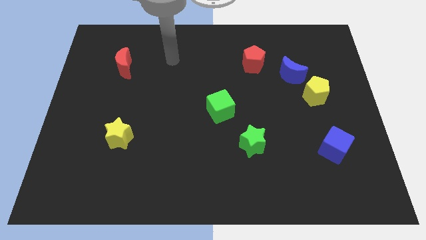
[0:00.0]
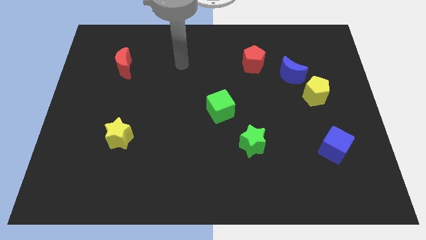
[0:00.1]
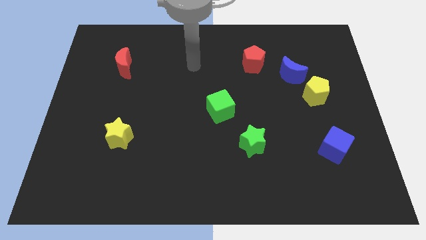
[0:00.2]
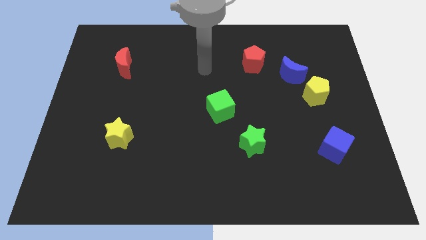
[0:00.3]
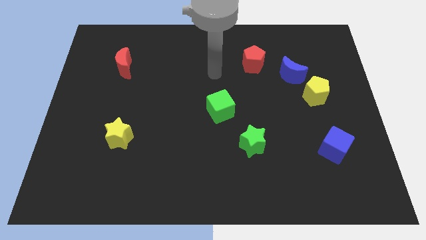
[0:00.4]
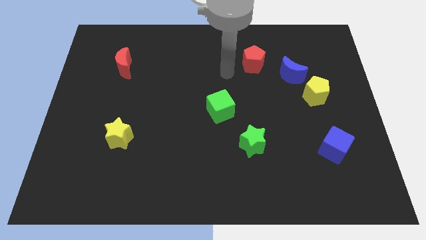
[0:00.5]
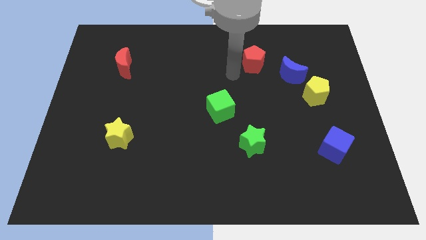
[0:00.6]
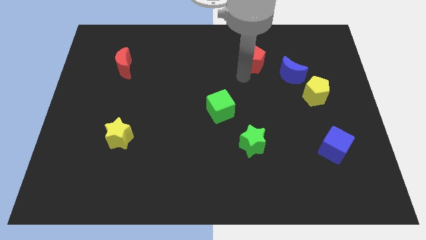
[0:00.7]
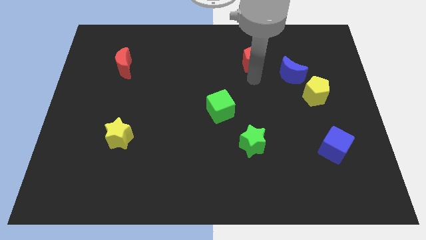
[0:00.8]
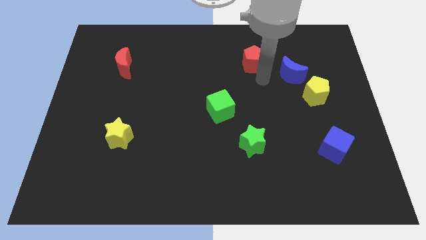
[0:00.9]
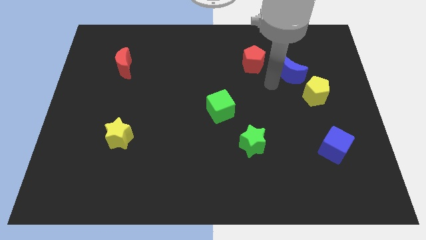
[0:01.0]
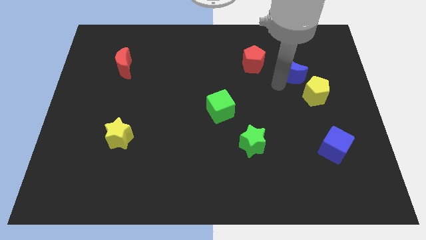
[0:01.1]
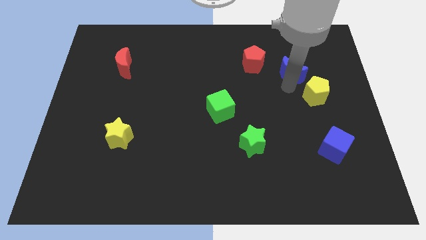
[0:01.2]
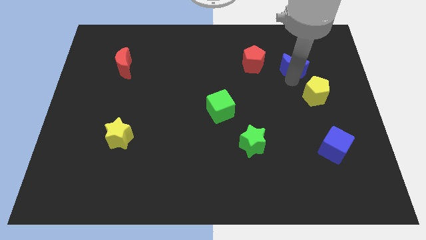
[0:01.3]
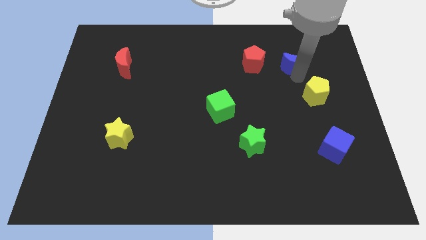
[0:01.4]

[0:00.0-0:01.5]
pull the yellow pentagon apart from the blue moon

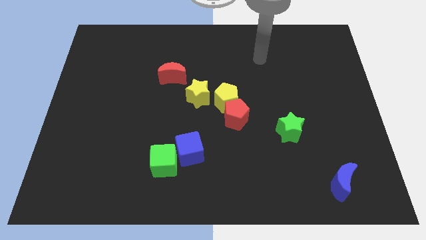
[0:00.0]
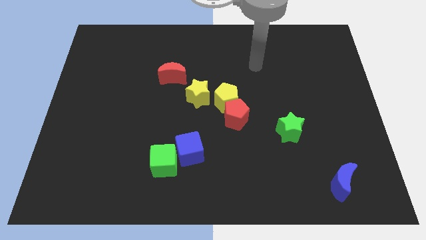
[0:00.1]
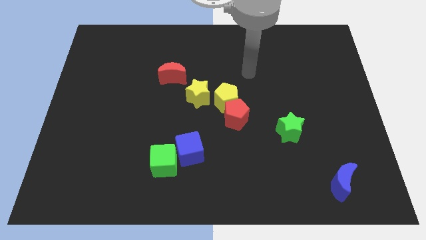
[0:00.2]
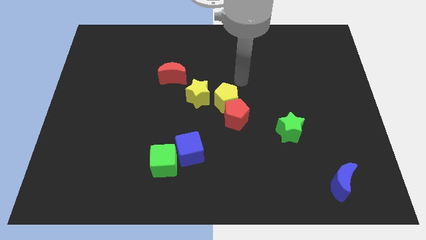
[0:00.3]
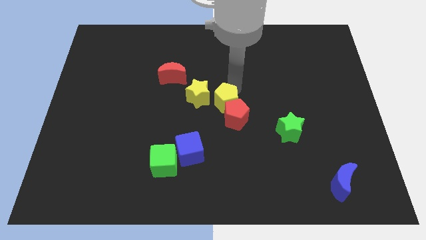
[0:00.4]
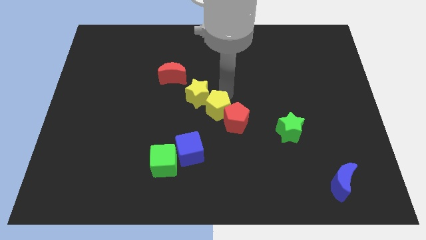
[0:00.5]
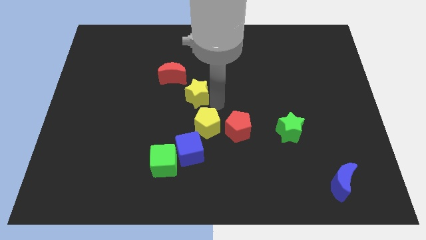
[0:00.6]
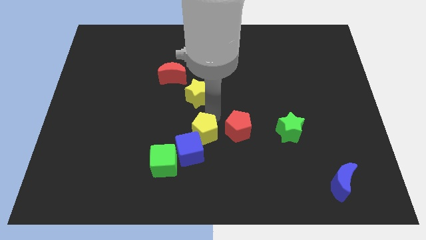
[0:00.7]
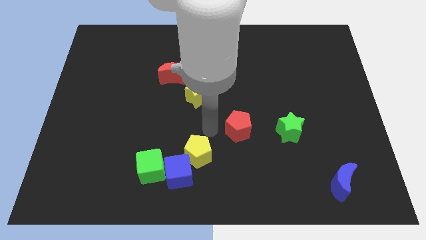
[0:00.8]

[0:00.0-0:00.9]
separate the red pentagon from the yellow pentagon

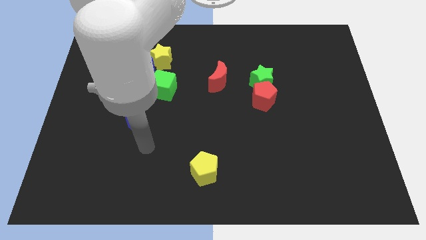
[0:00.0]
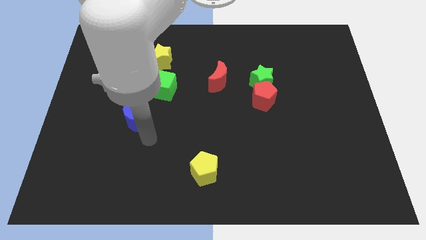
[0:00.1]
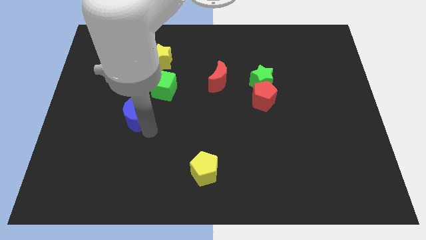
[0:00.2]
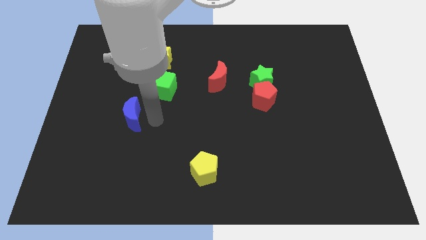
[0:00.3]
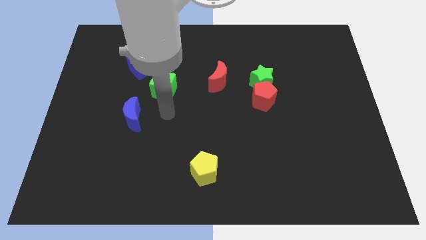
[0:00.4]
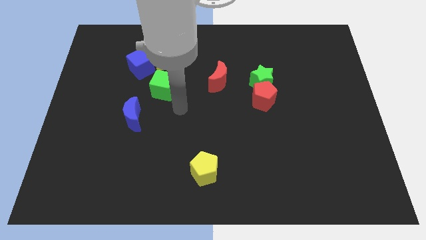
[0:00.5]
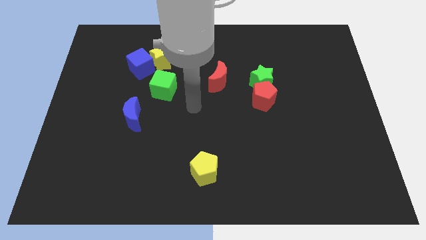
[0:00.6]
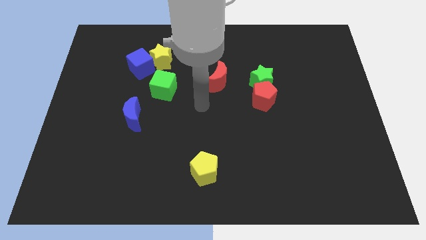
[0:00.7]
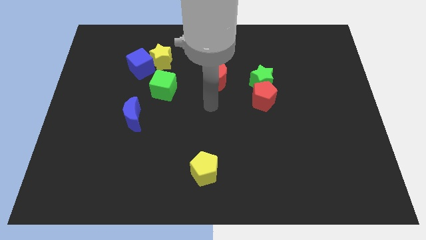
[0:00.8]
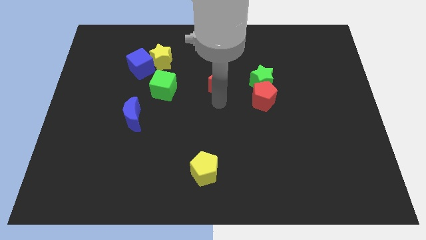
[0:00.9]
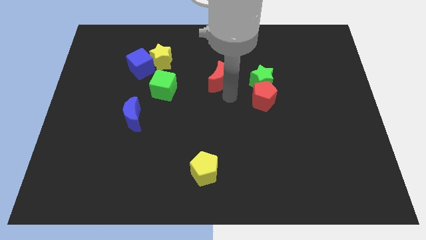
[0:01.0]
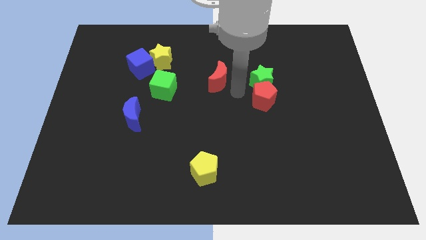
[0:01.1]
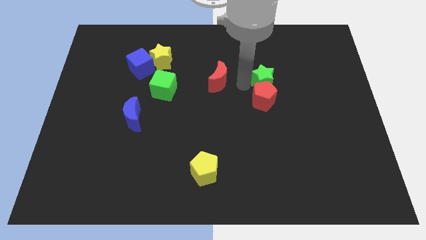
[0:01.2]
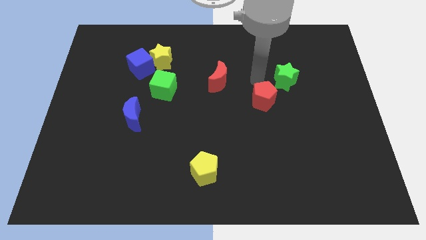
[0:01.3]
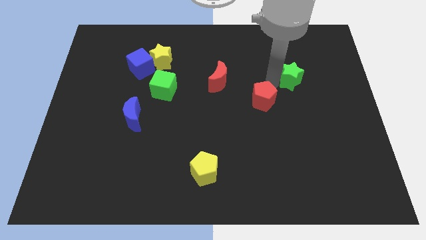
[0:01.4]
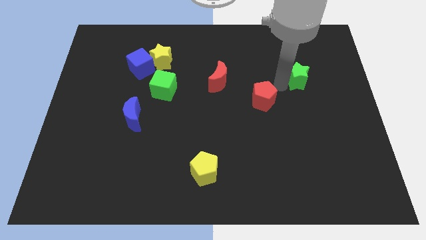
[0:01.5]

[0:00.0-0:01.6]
move the red pentagon away from the green star

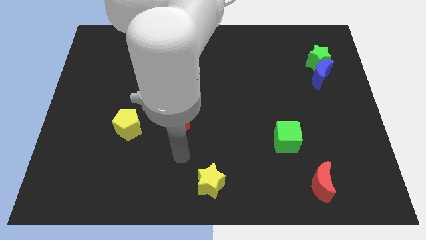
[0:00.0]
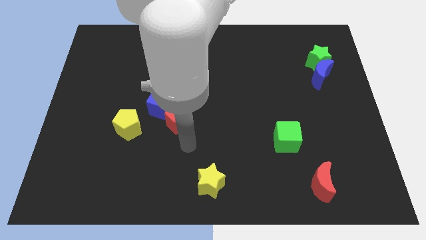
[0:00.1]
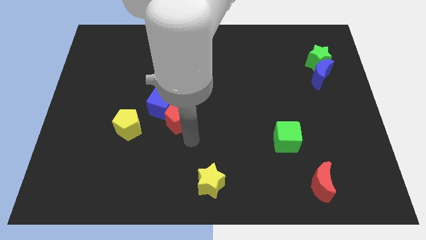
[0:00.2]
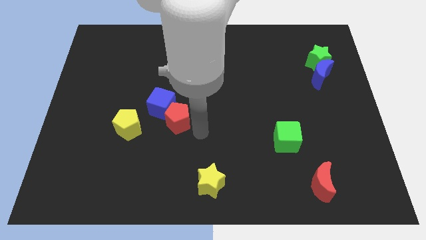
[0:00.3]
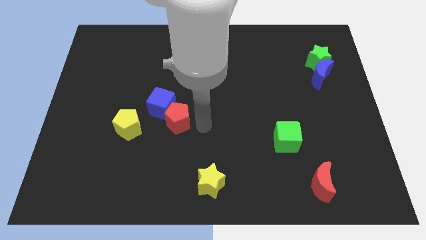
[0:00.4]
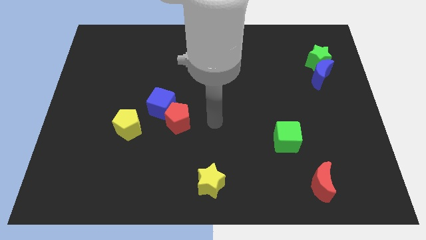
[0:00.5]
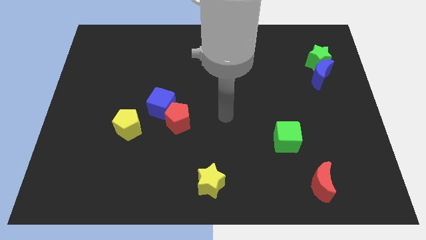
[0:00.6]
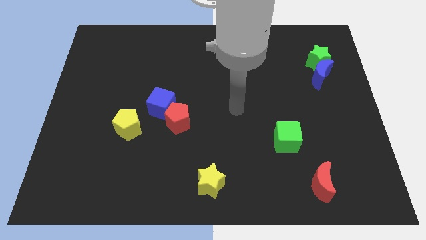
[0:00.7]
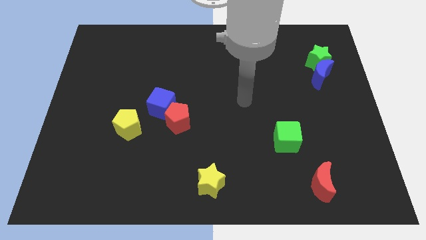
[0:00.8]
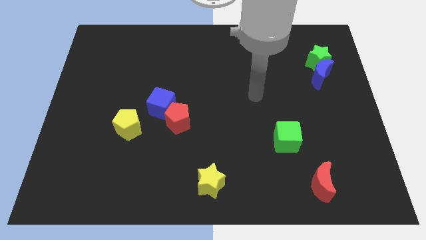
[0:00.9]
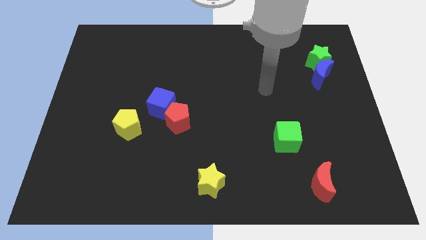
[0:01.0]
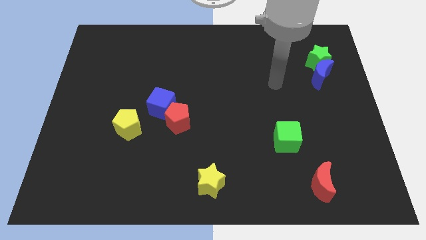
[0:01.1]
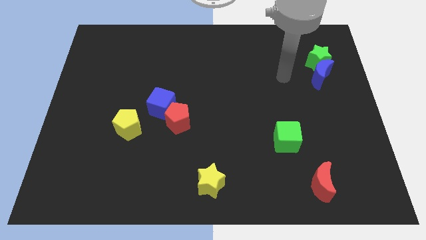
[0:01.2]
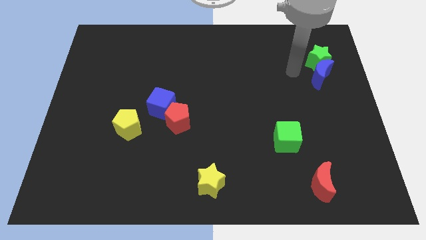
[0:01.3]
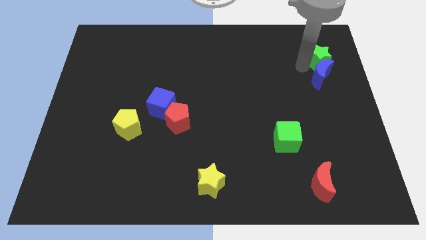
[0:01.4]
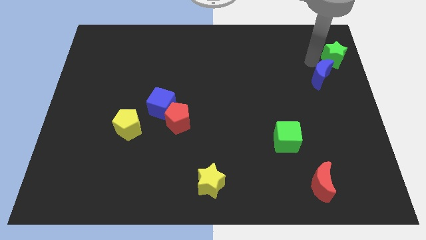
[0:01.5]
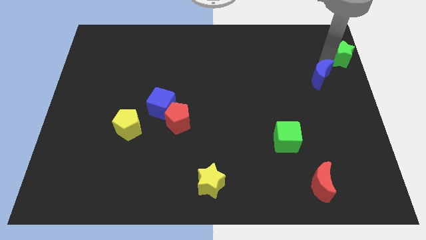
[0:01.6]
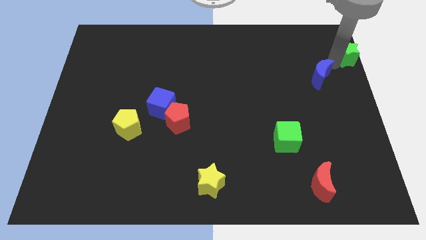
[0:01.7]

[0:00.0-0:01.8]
separate the blue moon from the green star

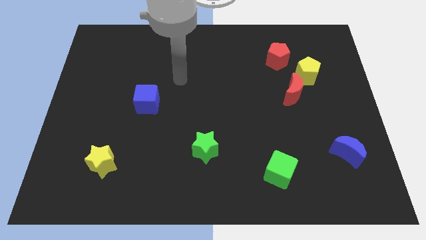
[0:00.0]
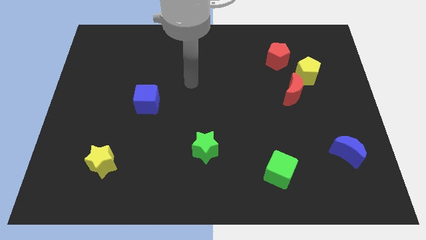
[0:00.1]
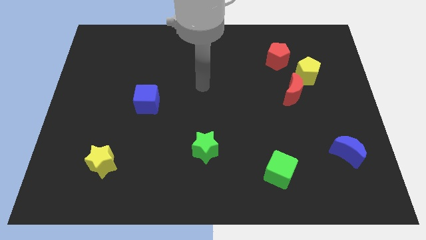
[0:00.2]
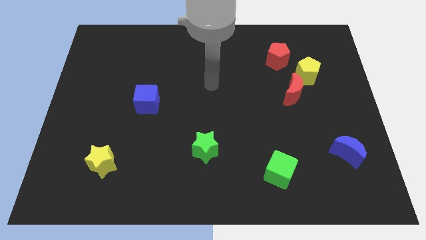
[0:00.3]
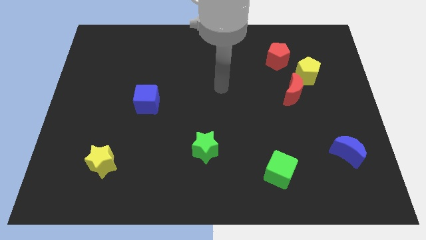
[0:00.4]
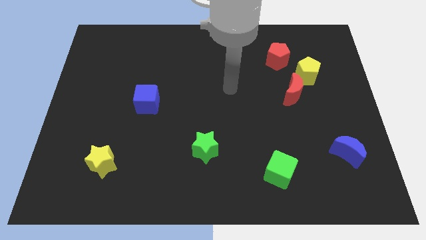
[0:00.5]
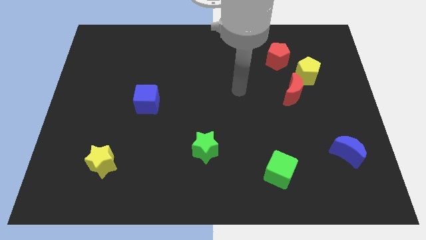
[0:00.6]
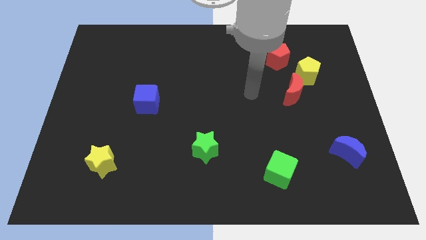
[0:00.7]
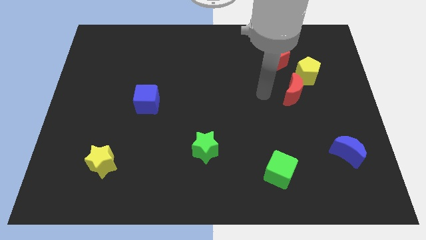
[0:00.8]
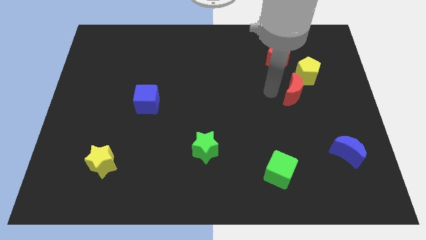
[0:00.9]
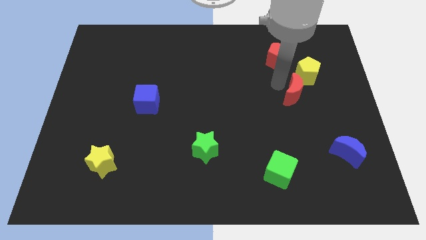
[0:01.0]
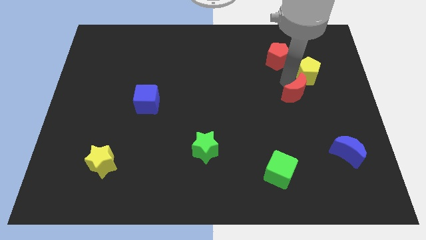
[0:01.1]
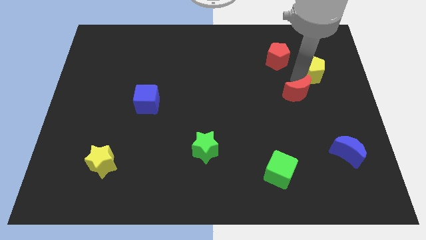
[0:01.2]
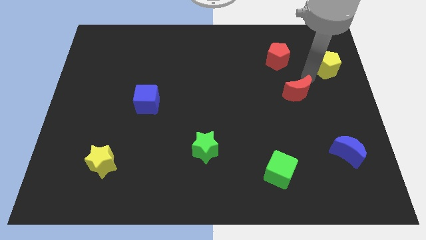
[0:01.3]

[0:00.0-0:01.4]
pull the red moon apart from the yellow pentagon

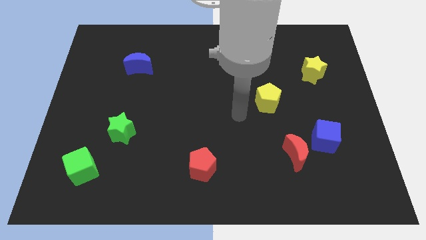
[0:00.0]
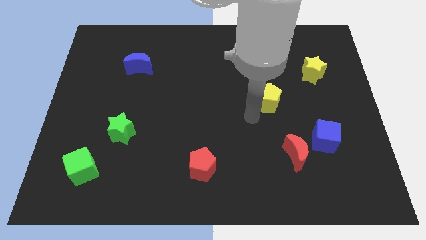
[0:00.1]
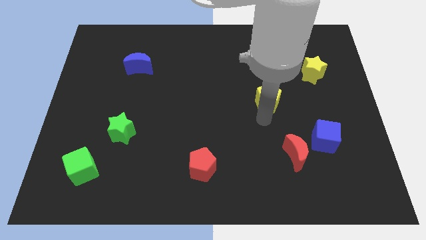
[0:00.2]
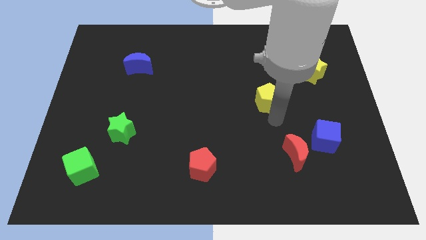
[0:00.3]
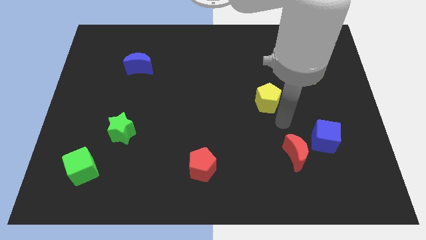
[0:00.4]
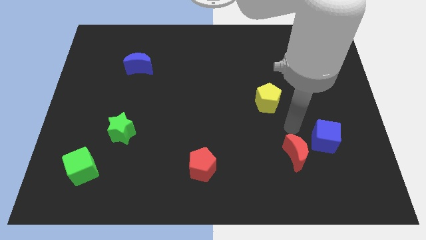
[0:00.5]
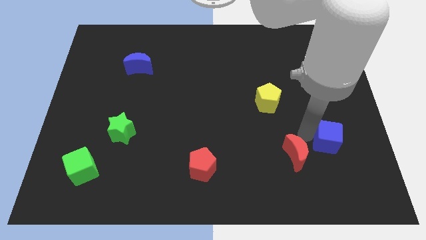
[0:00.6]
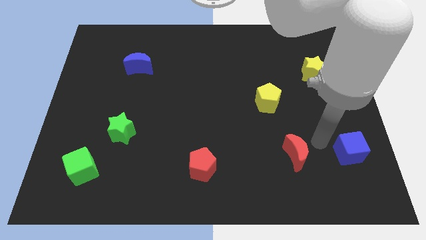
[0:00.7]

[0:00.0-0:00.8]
move the red moon away from the blue cube

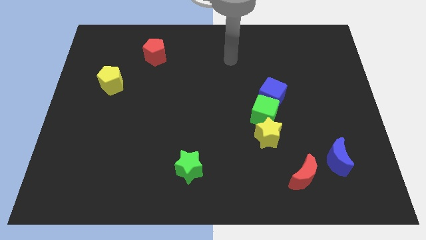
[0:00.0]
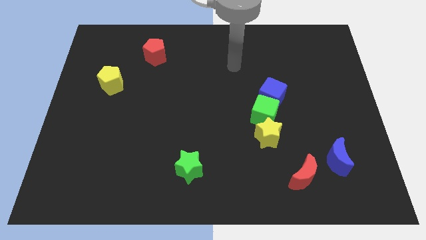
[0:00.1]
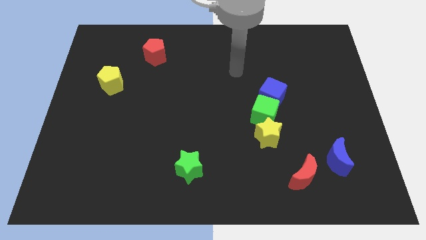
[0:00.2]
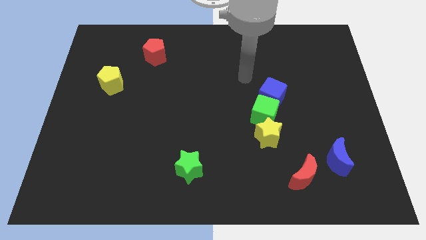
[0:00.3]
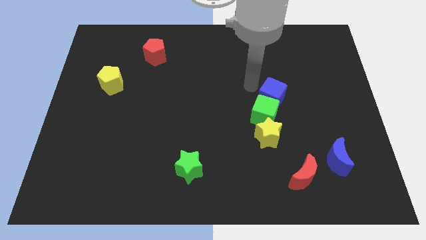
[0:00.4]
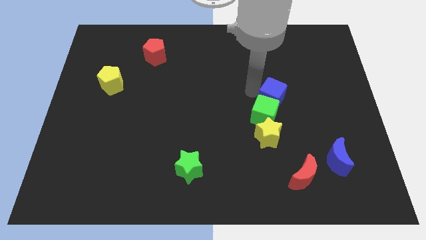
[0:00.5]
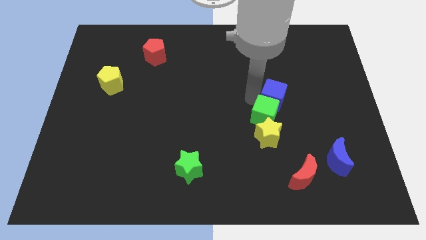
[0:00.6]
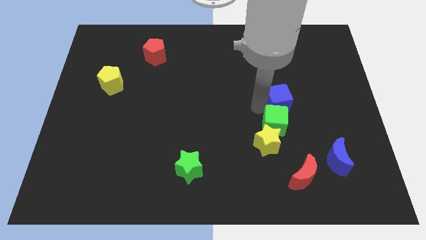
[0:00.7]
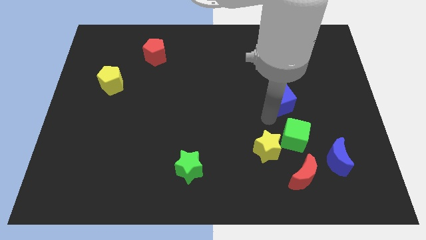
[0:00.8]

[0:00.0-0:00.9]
pull the blue cube apart from the green cube

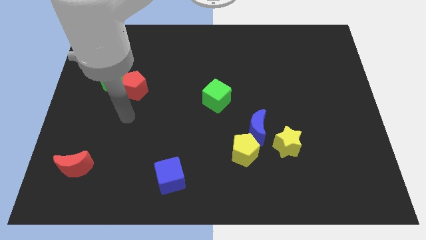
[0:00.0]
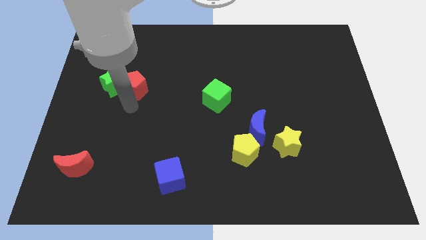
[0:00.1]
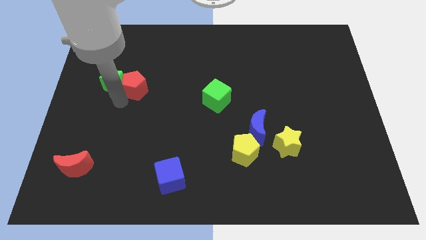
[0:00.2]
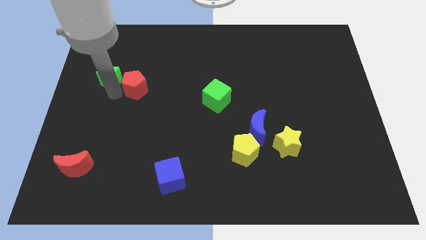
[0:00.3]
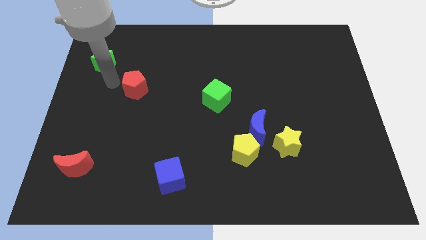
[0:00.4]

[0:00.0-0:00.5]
separate the red pentagon from the green star
